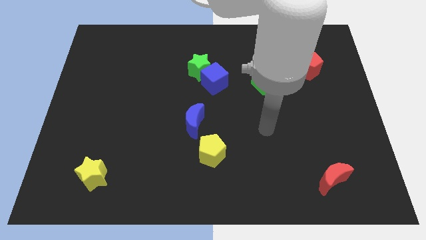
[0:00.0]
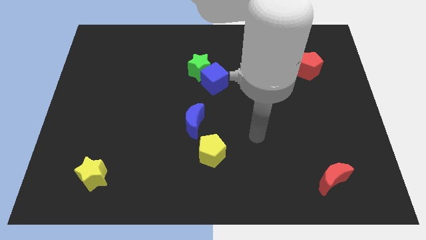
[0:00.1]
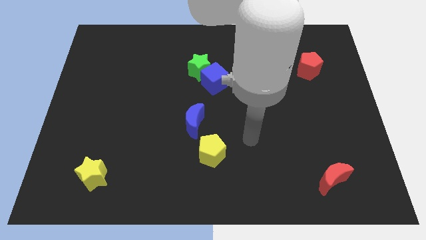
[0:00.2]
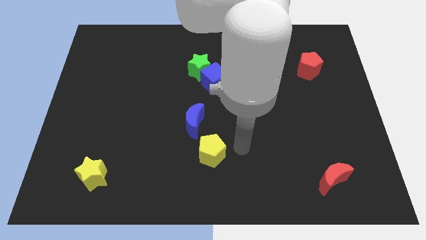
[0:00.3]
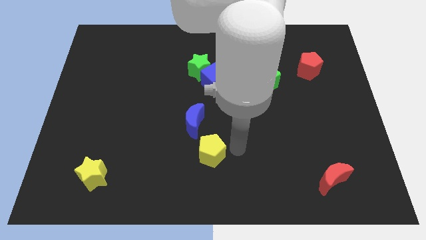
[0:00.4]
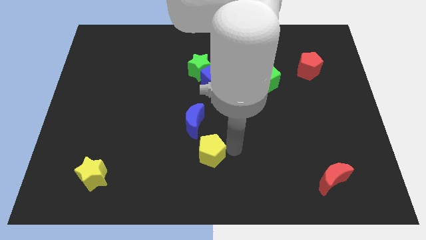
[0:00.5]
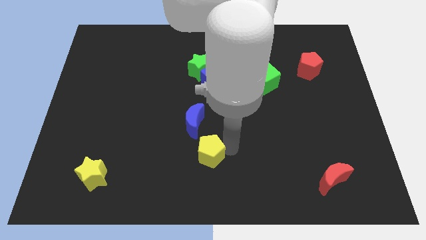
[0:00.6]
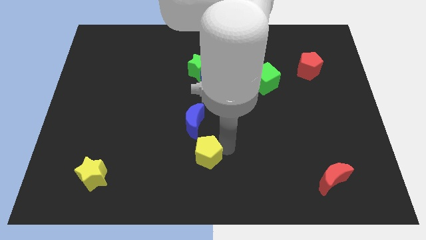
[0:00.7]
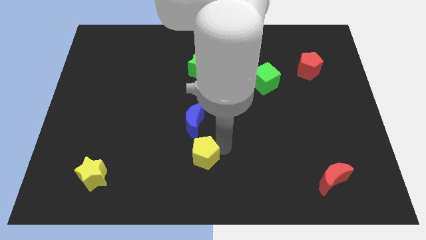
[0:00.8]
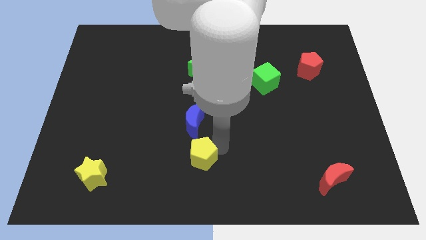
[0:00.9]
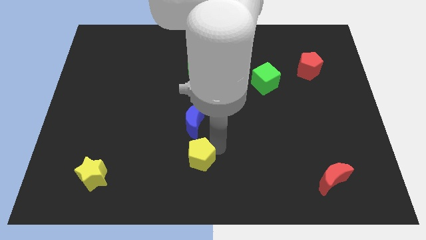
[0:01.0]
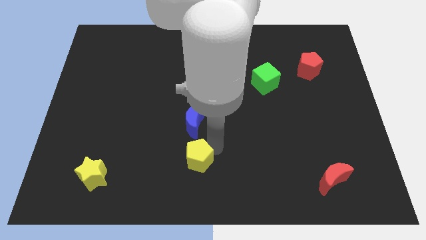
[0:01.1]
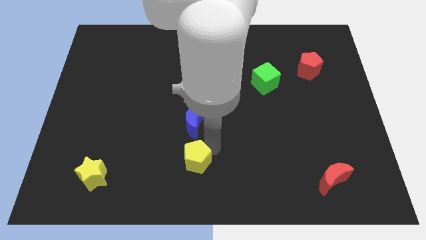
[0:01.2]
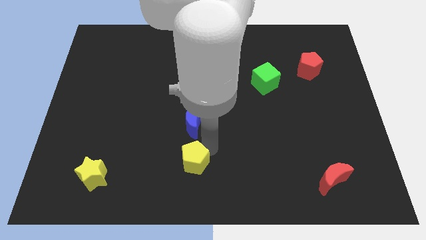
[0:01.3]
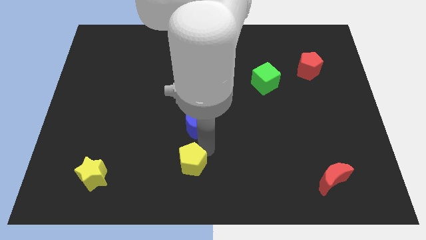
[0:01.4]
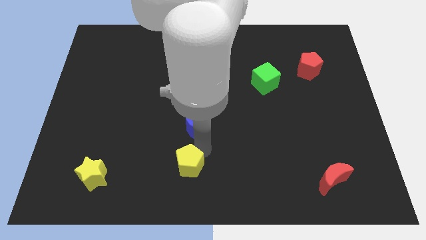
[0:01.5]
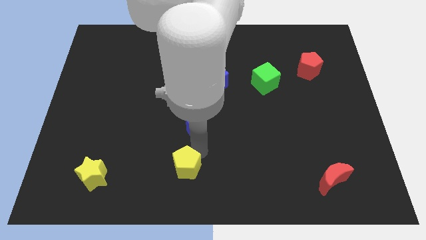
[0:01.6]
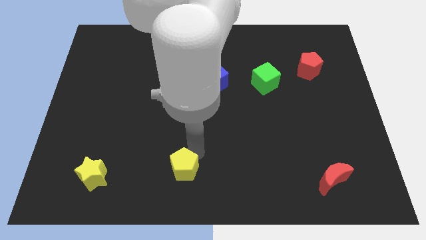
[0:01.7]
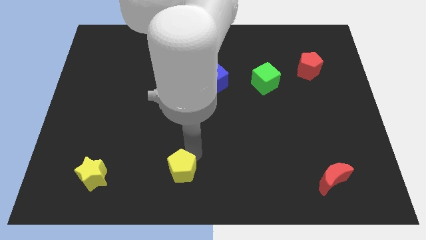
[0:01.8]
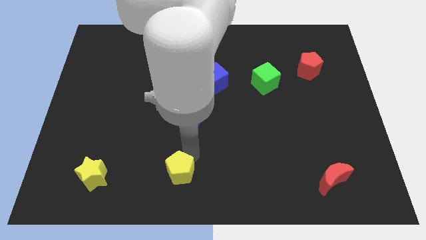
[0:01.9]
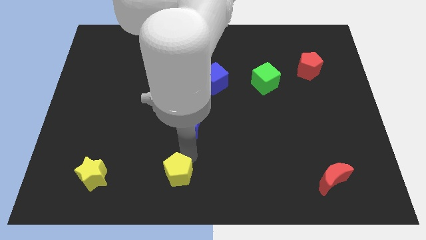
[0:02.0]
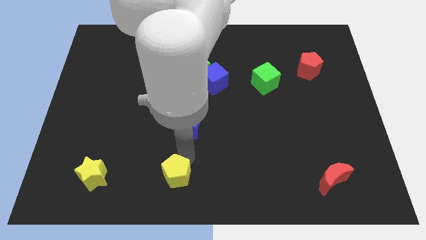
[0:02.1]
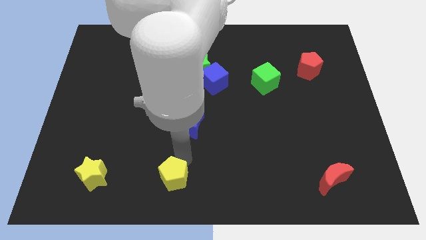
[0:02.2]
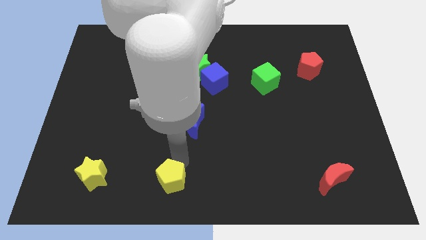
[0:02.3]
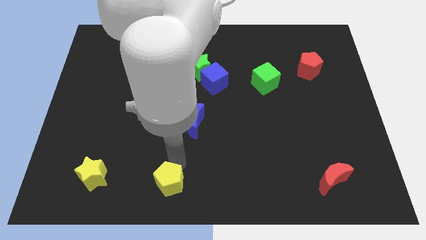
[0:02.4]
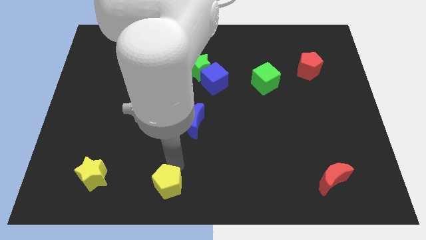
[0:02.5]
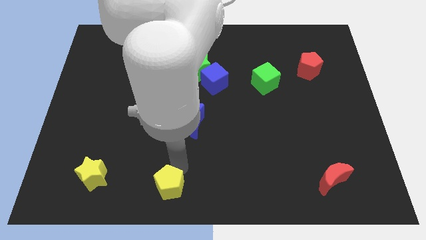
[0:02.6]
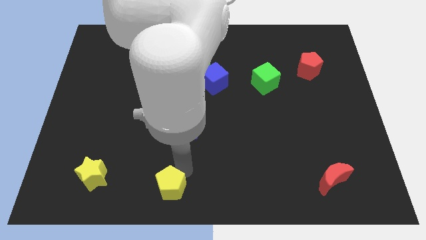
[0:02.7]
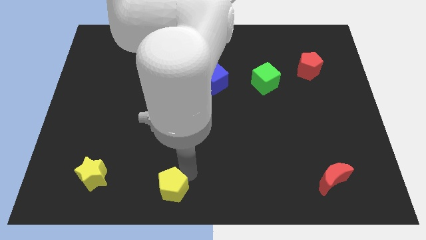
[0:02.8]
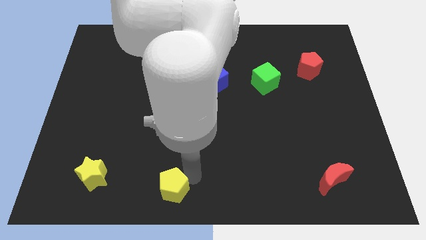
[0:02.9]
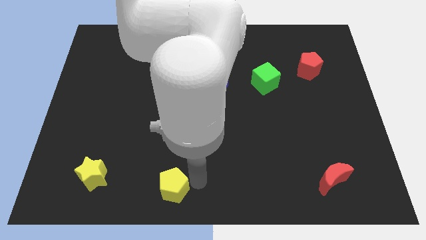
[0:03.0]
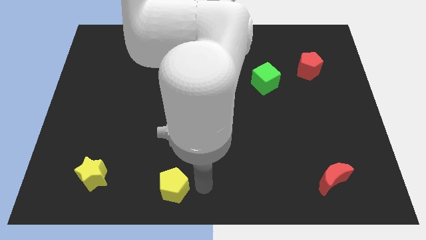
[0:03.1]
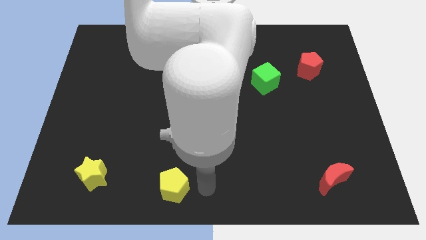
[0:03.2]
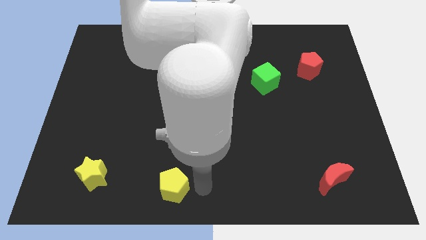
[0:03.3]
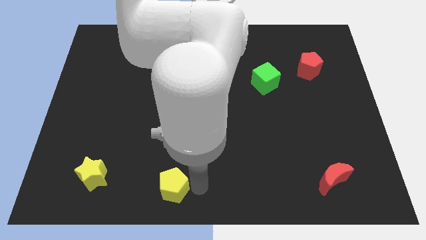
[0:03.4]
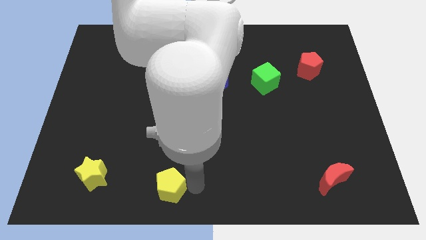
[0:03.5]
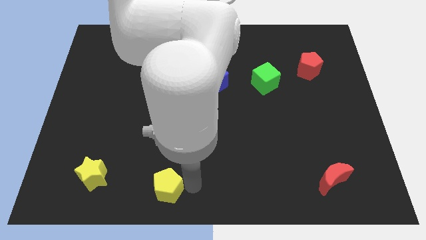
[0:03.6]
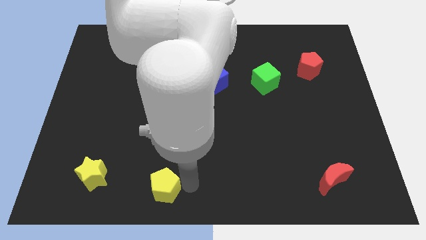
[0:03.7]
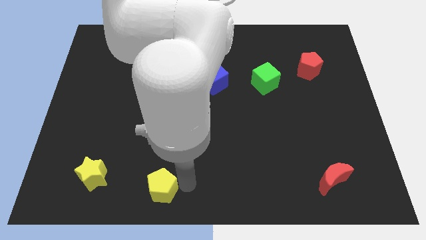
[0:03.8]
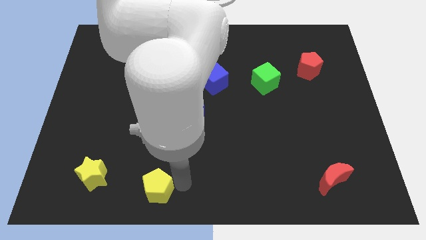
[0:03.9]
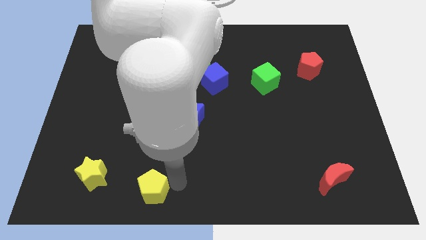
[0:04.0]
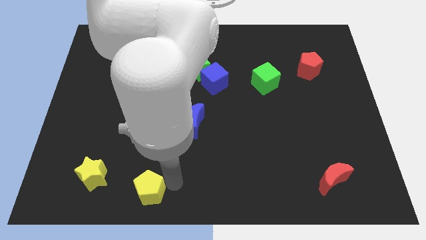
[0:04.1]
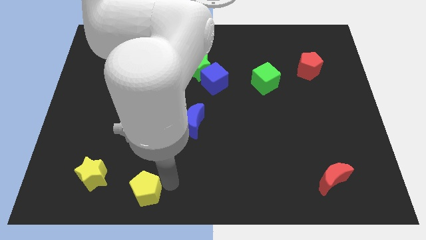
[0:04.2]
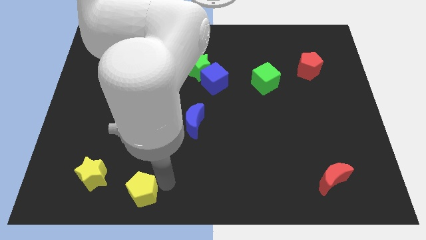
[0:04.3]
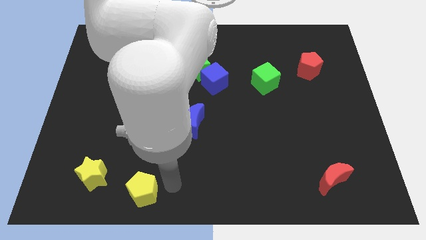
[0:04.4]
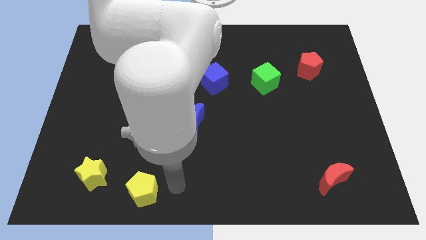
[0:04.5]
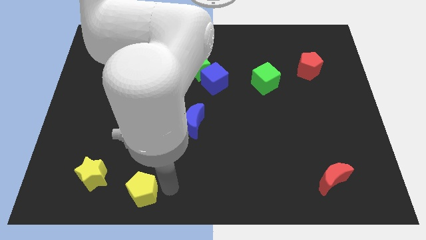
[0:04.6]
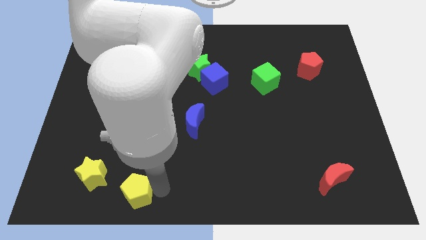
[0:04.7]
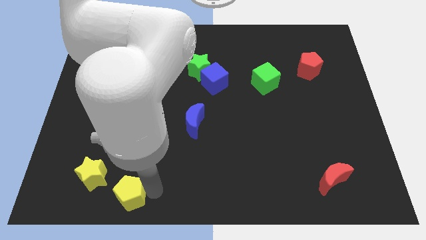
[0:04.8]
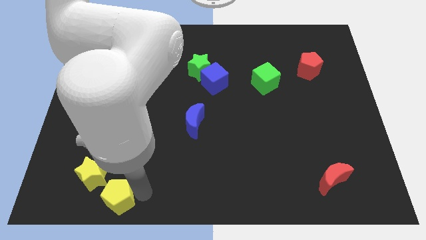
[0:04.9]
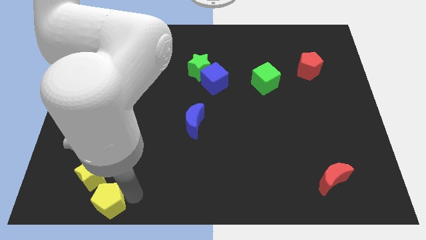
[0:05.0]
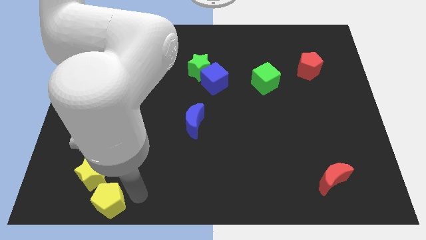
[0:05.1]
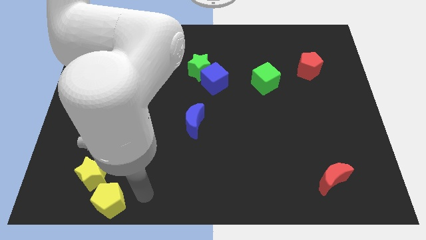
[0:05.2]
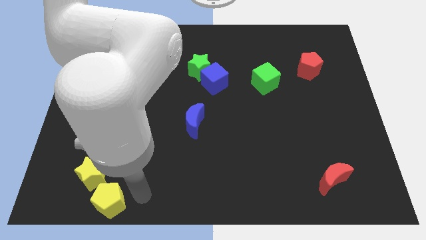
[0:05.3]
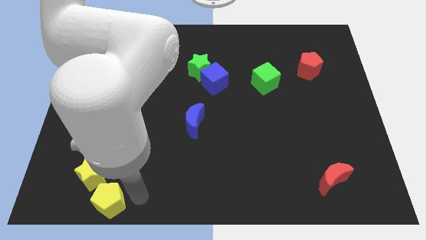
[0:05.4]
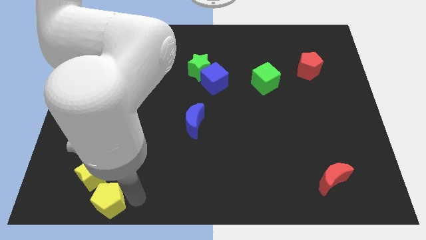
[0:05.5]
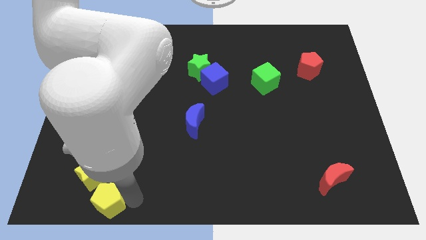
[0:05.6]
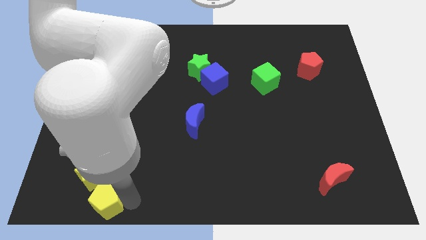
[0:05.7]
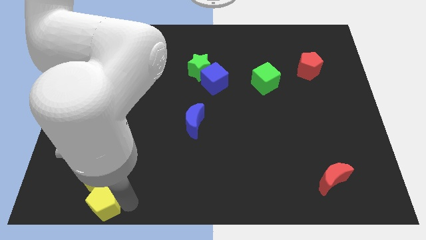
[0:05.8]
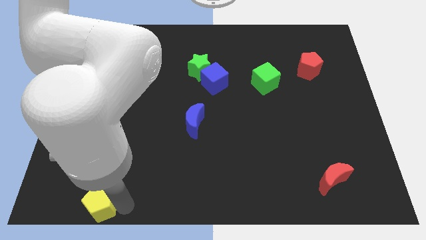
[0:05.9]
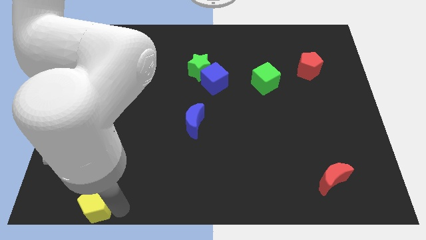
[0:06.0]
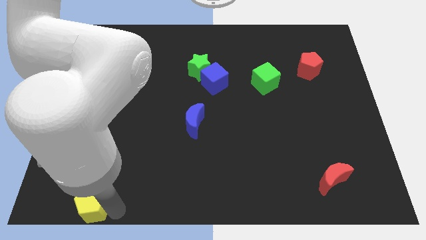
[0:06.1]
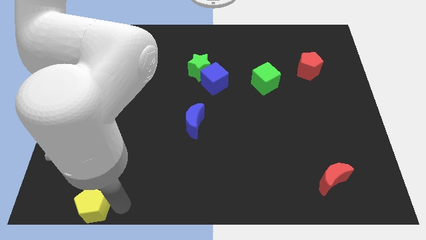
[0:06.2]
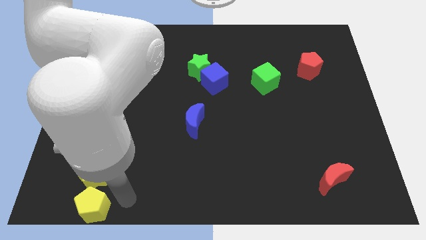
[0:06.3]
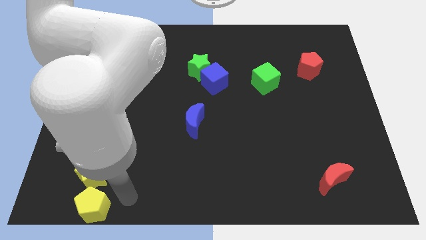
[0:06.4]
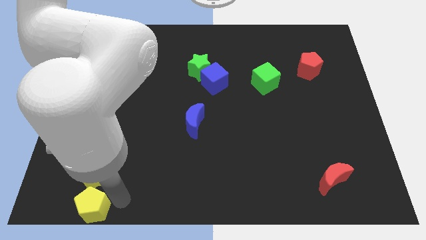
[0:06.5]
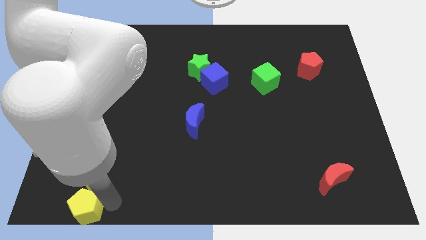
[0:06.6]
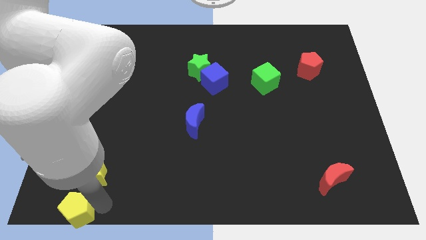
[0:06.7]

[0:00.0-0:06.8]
slide the yellow pentagon to the bottom left
